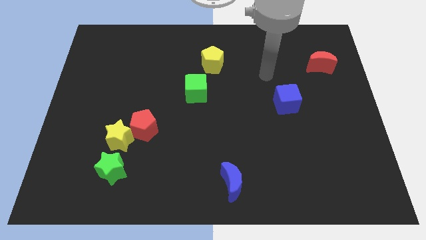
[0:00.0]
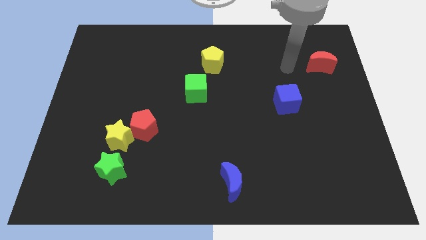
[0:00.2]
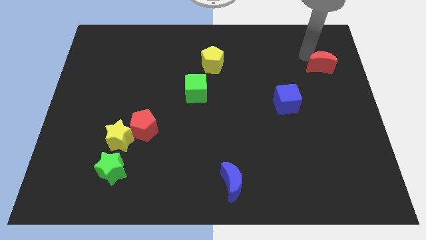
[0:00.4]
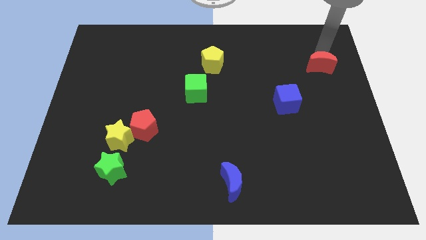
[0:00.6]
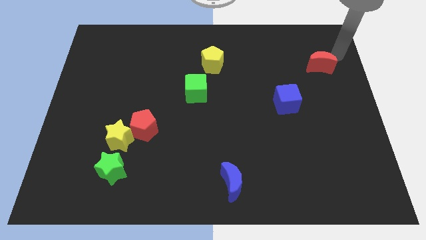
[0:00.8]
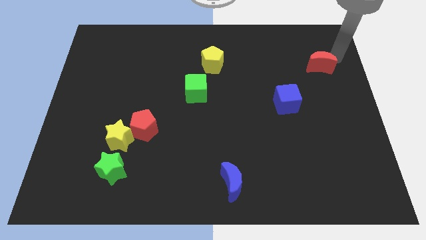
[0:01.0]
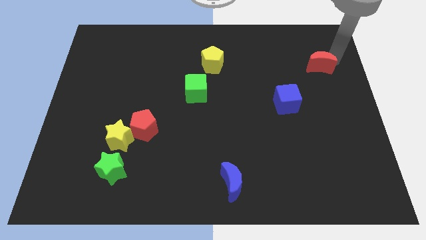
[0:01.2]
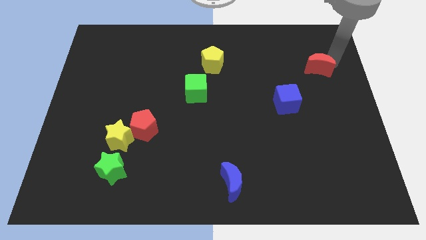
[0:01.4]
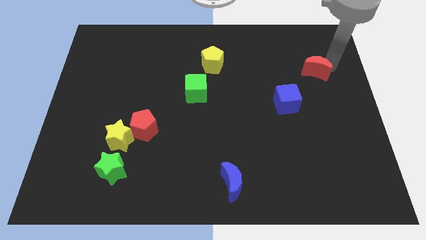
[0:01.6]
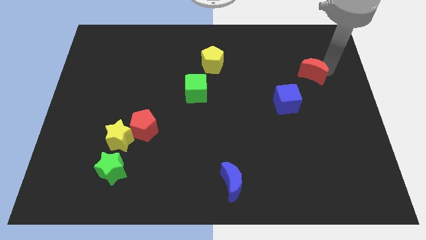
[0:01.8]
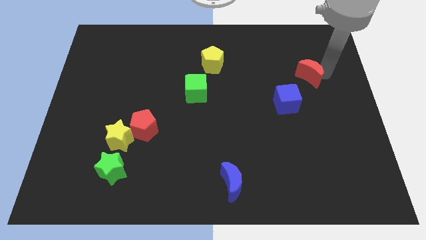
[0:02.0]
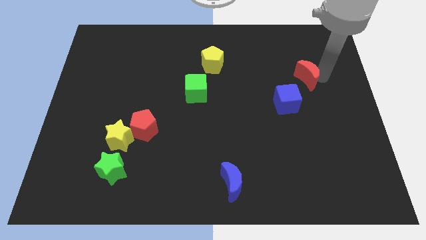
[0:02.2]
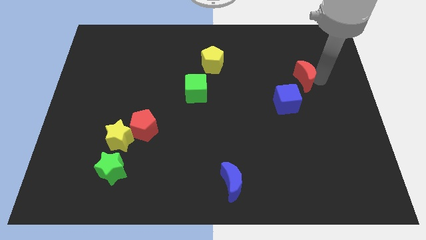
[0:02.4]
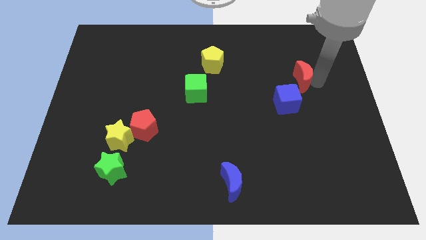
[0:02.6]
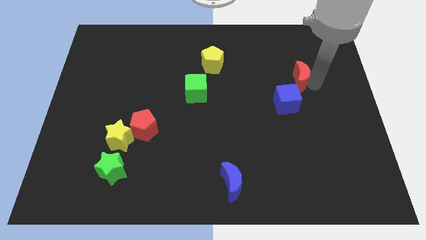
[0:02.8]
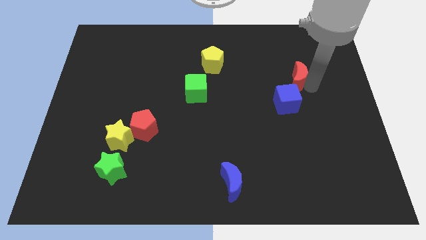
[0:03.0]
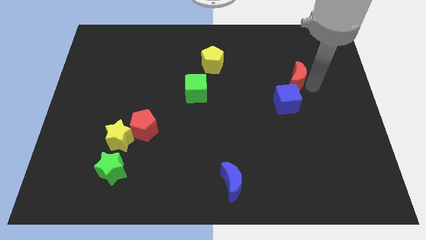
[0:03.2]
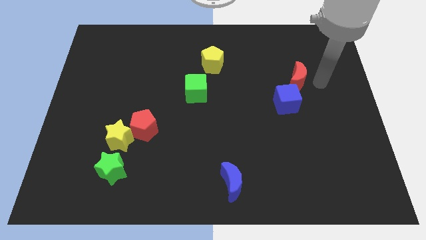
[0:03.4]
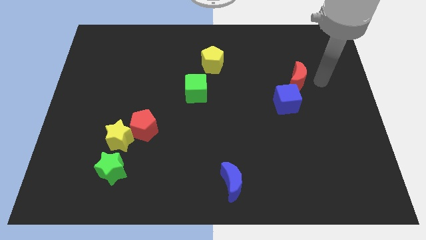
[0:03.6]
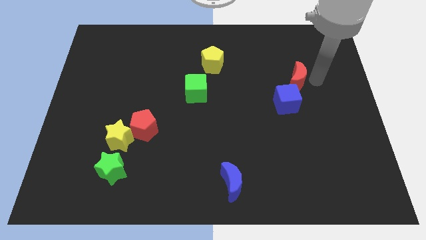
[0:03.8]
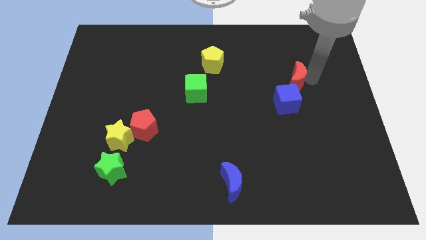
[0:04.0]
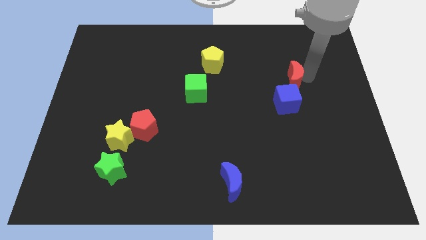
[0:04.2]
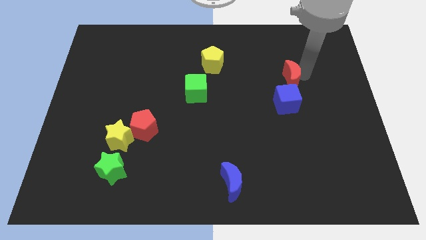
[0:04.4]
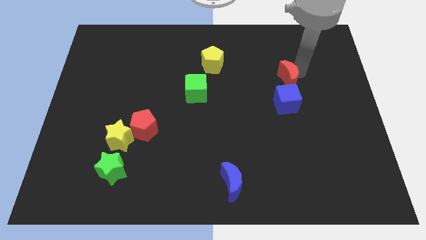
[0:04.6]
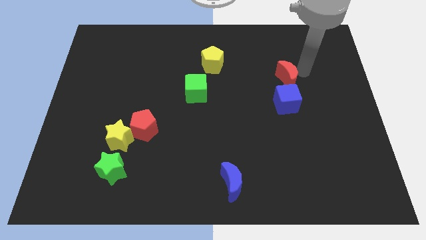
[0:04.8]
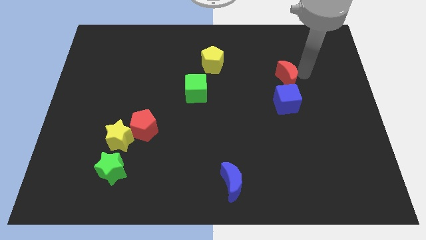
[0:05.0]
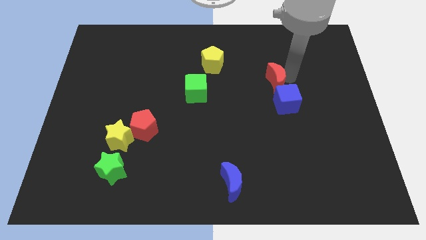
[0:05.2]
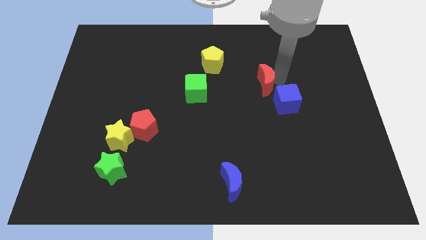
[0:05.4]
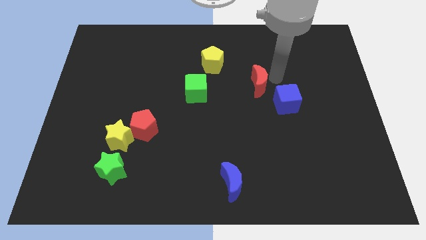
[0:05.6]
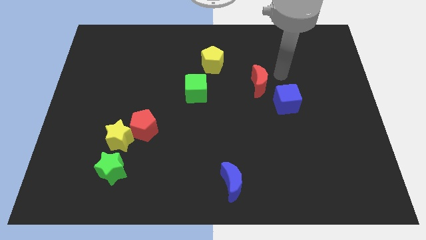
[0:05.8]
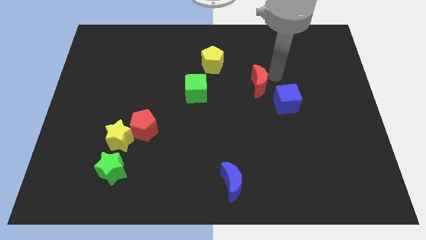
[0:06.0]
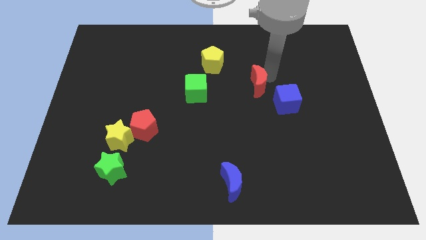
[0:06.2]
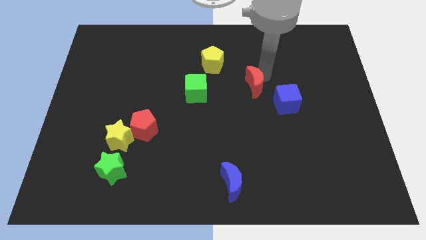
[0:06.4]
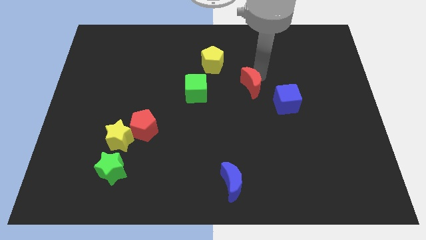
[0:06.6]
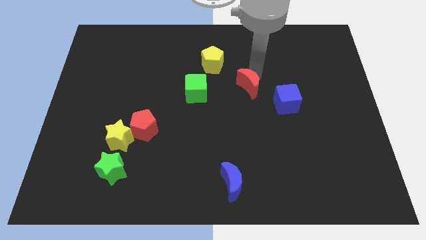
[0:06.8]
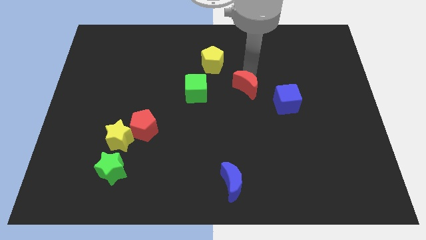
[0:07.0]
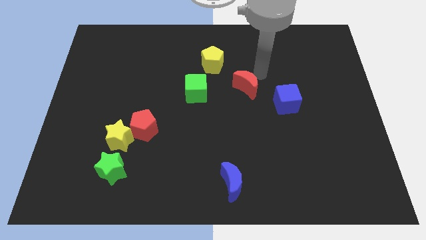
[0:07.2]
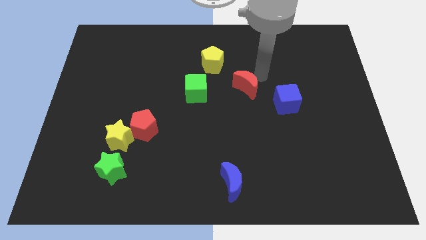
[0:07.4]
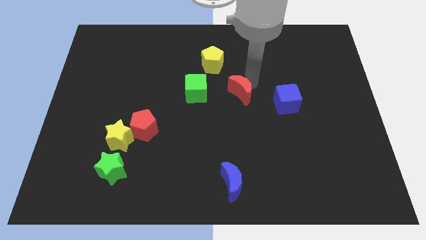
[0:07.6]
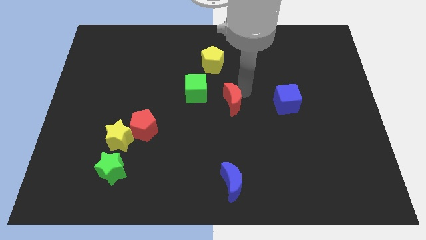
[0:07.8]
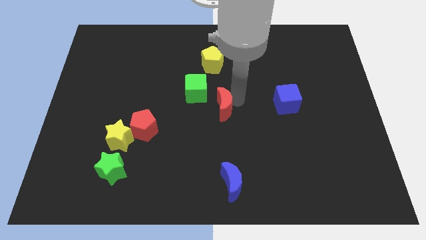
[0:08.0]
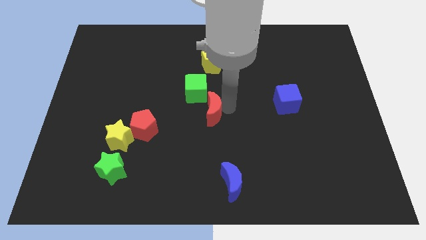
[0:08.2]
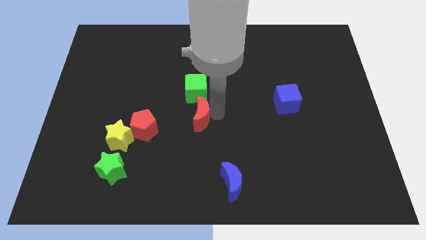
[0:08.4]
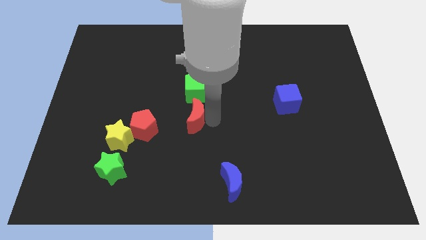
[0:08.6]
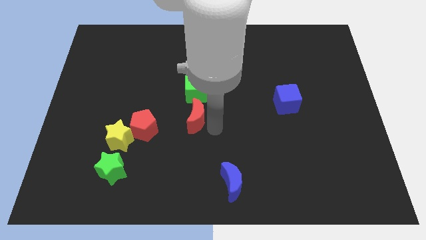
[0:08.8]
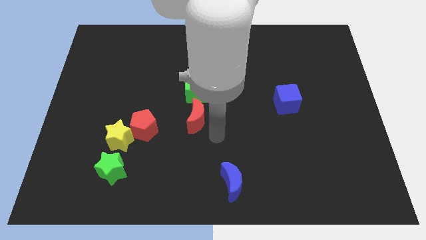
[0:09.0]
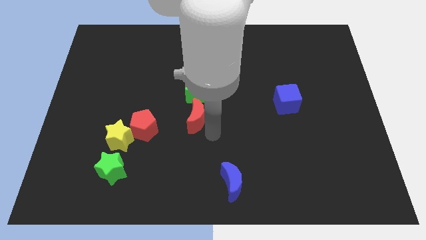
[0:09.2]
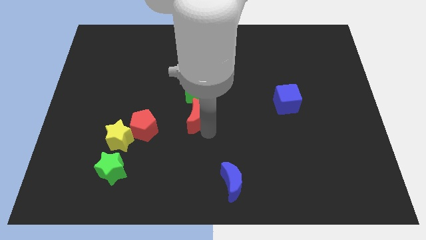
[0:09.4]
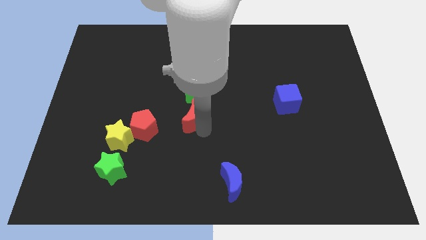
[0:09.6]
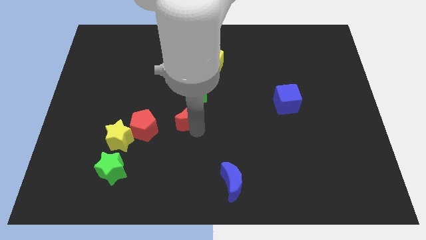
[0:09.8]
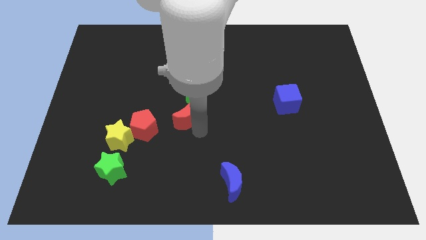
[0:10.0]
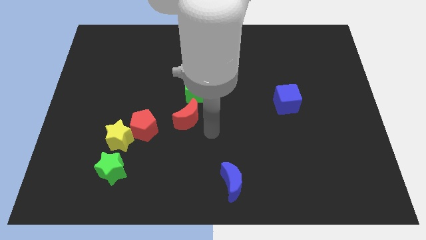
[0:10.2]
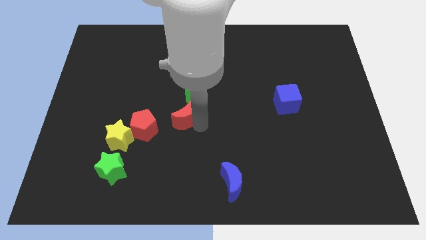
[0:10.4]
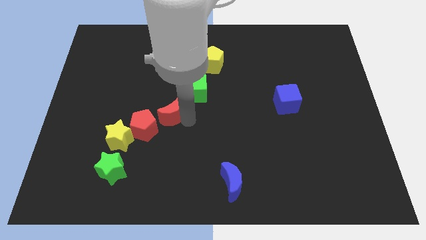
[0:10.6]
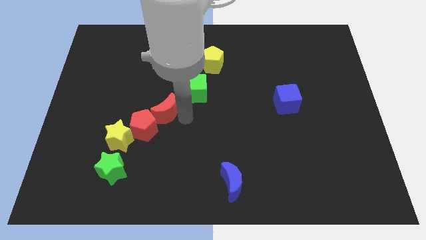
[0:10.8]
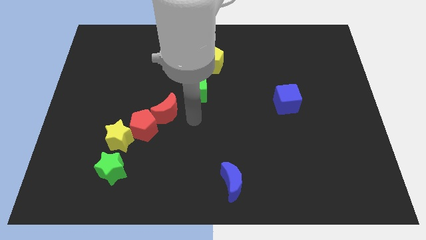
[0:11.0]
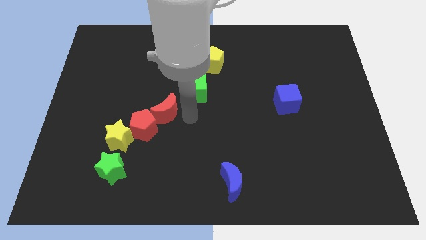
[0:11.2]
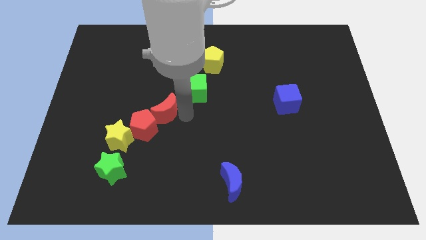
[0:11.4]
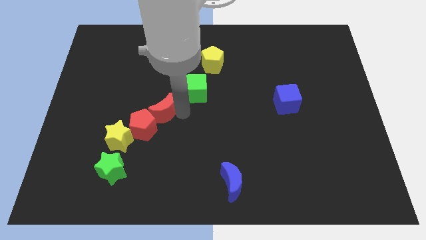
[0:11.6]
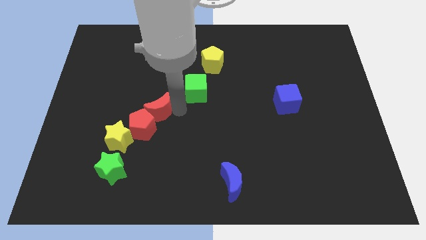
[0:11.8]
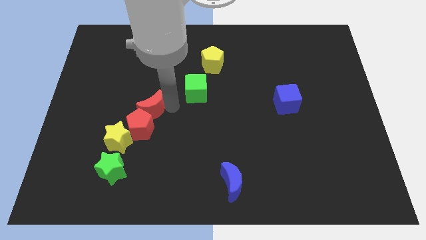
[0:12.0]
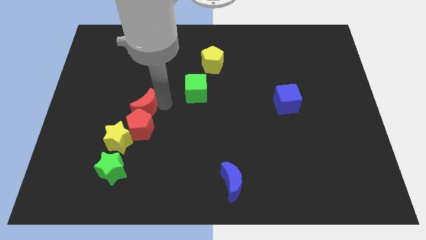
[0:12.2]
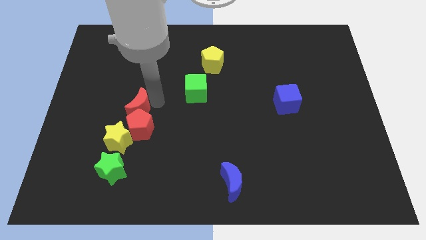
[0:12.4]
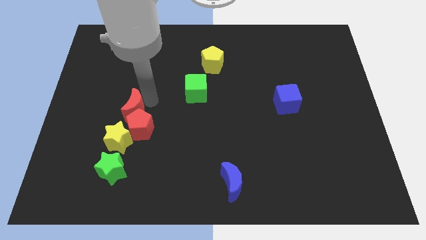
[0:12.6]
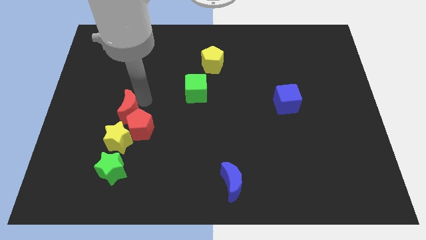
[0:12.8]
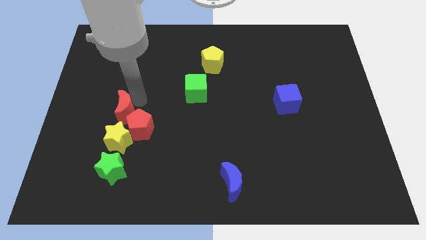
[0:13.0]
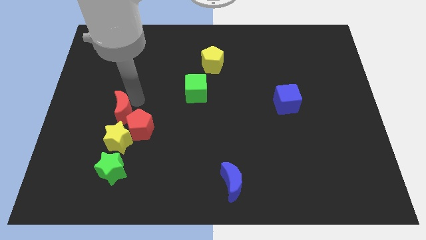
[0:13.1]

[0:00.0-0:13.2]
put the red moon left of the red pentagon
